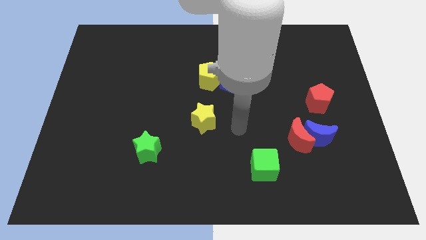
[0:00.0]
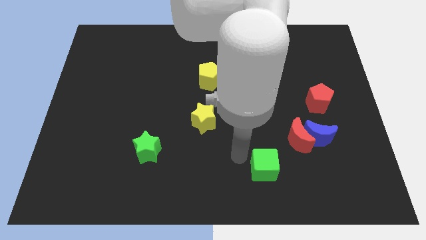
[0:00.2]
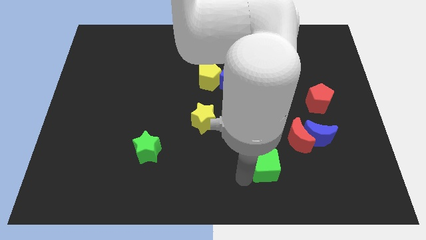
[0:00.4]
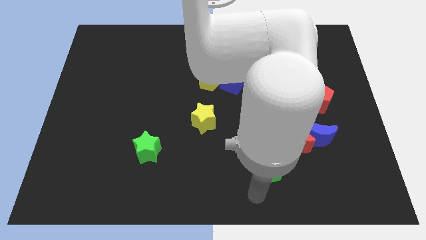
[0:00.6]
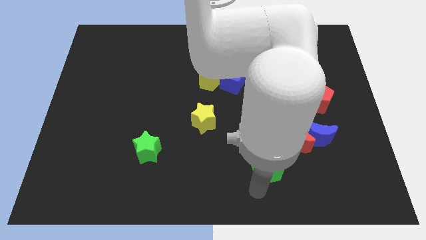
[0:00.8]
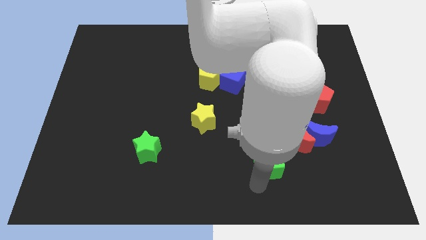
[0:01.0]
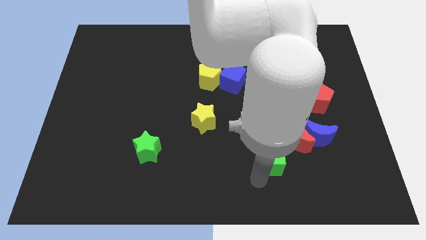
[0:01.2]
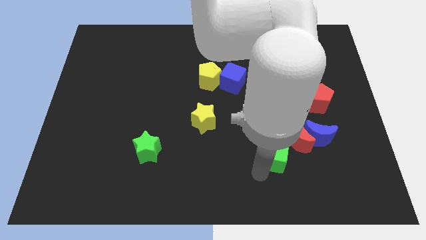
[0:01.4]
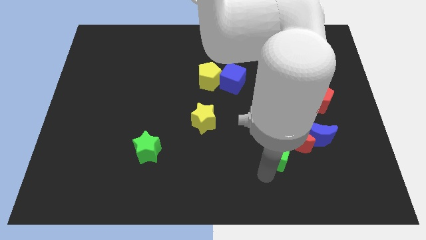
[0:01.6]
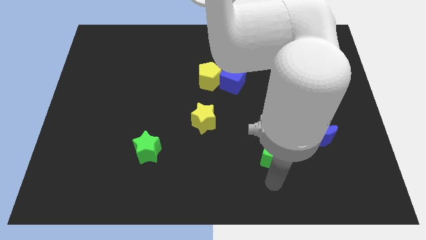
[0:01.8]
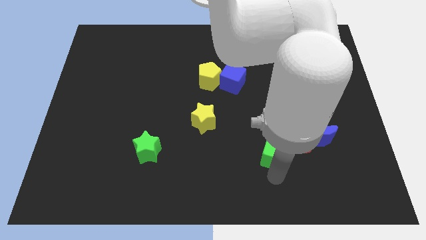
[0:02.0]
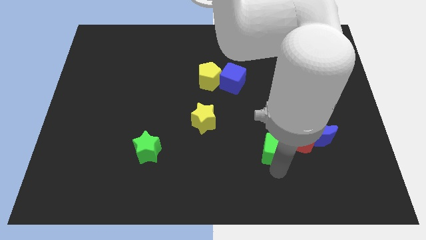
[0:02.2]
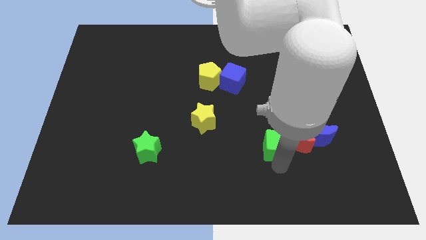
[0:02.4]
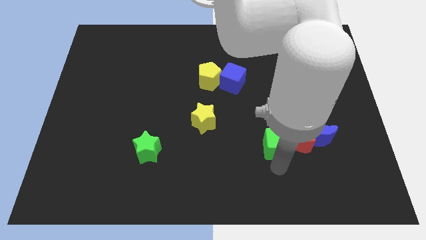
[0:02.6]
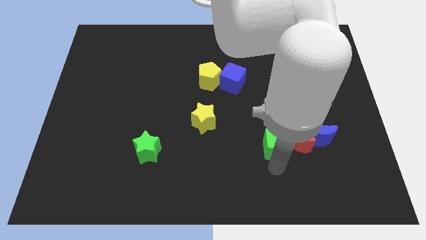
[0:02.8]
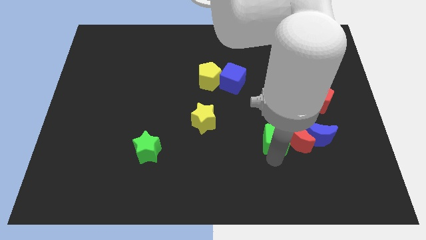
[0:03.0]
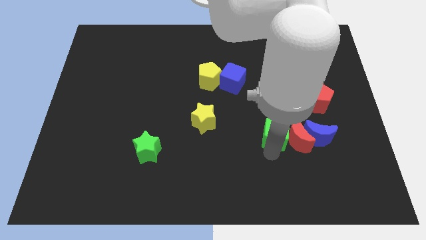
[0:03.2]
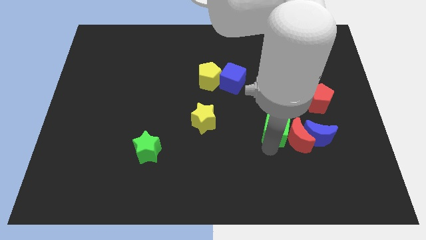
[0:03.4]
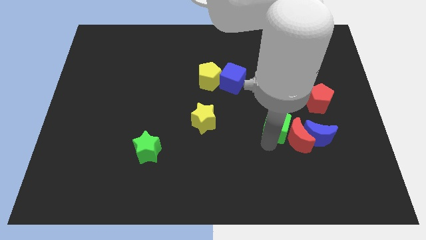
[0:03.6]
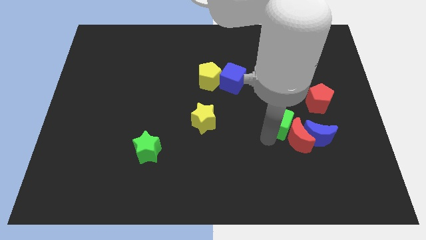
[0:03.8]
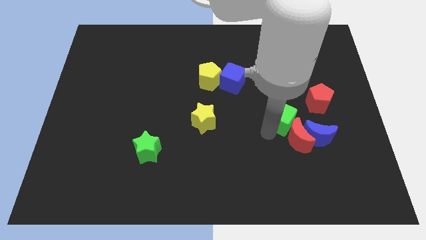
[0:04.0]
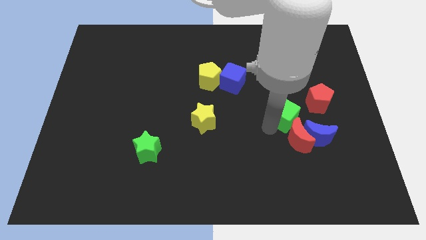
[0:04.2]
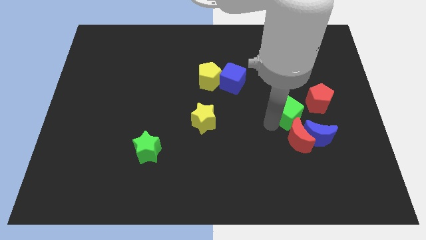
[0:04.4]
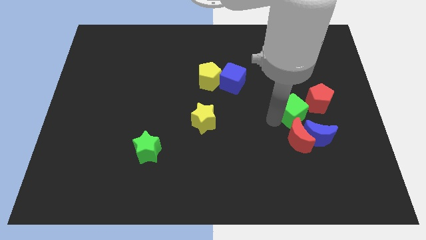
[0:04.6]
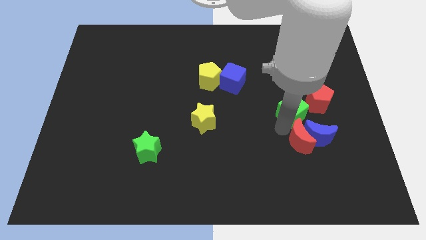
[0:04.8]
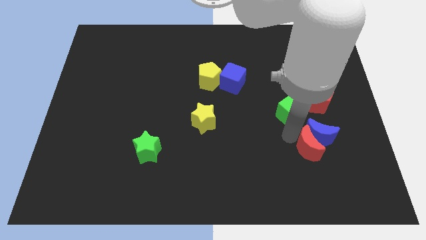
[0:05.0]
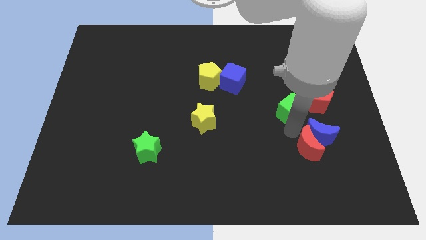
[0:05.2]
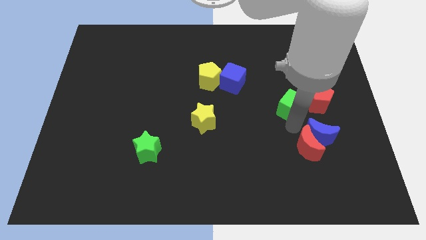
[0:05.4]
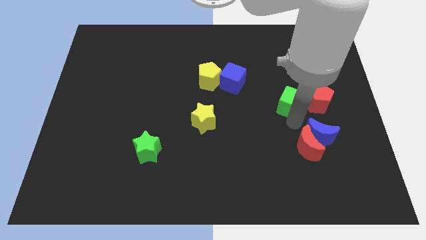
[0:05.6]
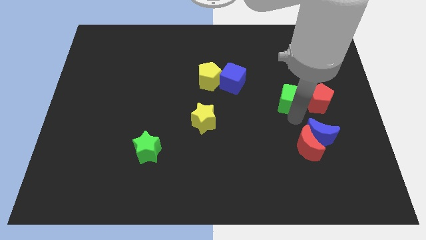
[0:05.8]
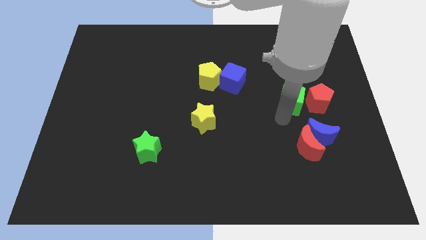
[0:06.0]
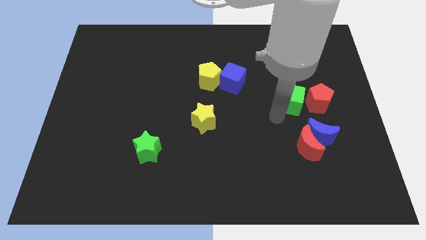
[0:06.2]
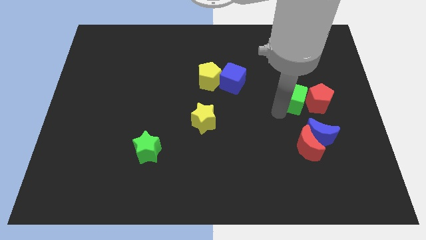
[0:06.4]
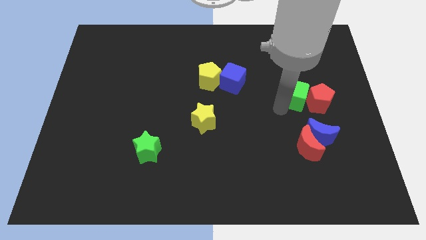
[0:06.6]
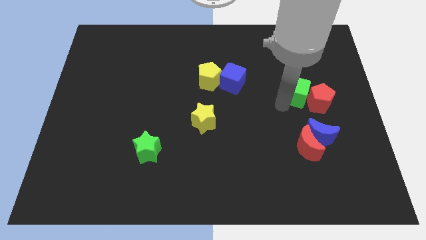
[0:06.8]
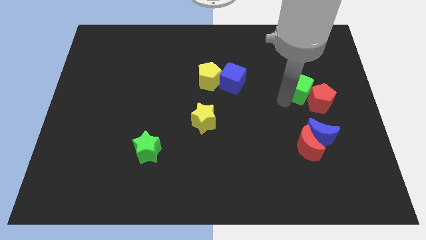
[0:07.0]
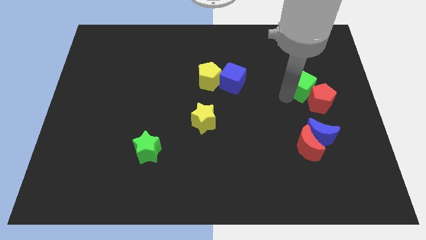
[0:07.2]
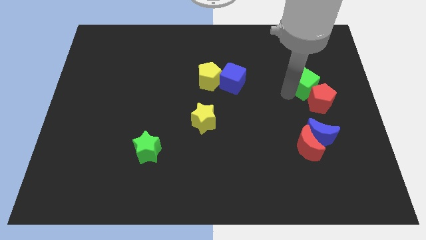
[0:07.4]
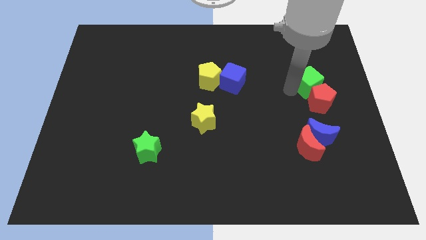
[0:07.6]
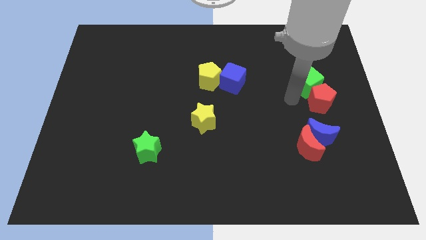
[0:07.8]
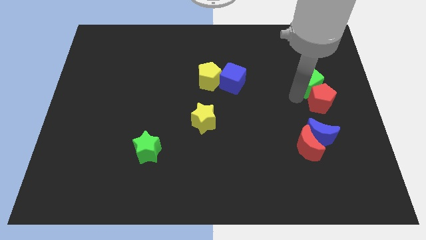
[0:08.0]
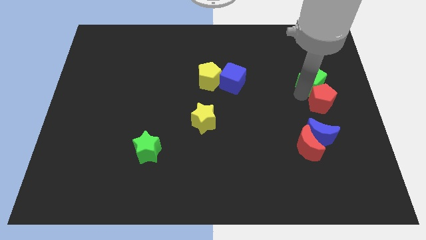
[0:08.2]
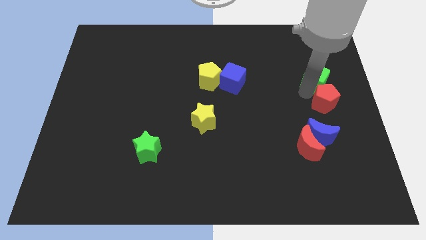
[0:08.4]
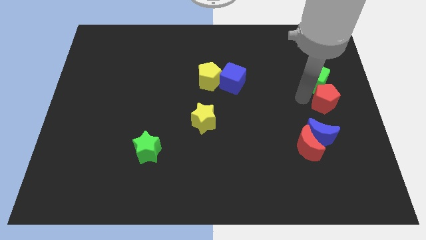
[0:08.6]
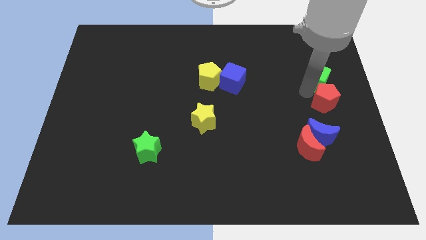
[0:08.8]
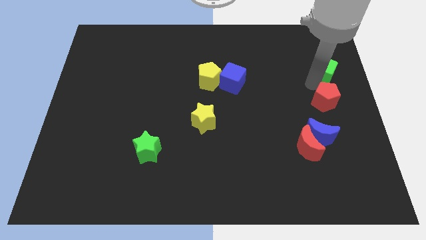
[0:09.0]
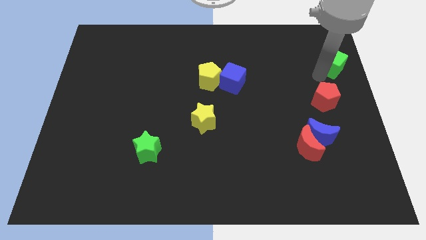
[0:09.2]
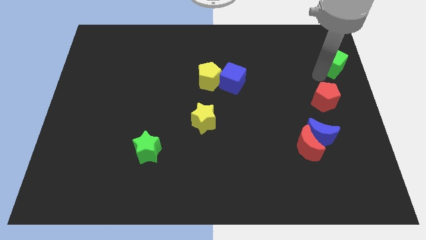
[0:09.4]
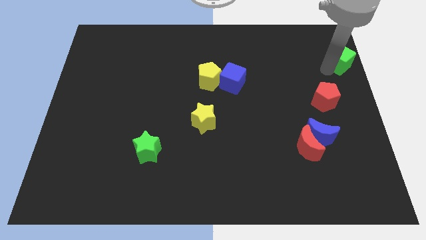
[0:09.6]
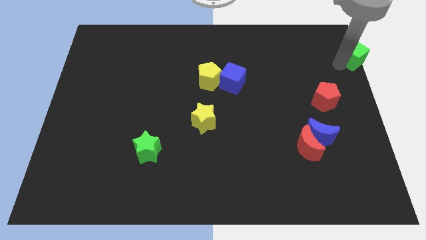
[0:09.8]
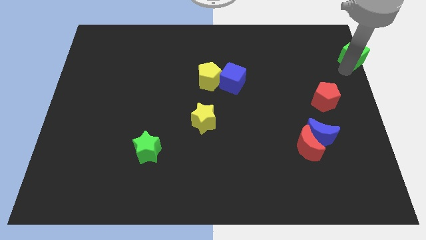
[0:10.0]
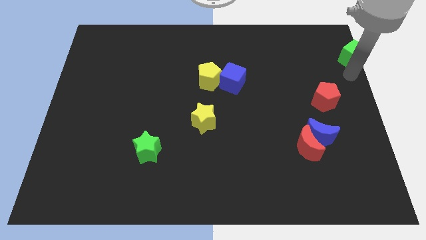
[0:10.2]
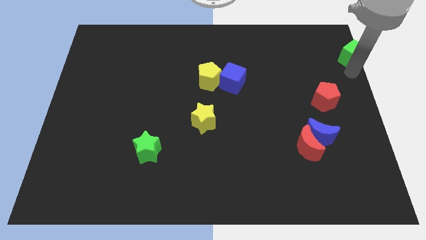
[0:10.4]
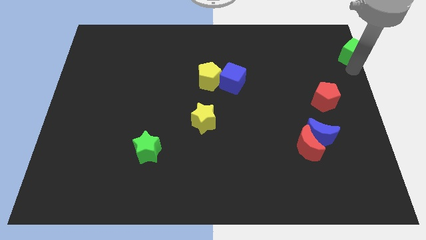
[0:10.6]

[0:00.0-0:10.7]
slide the green cube to the top right corner
